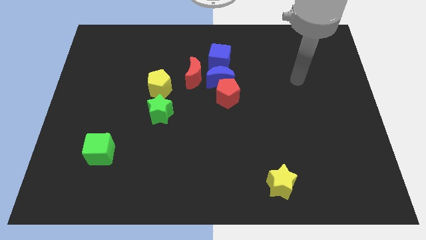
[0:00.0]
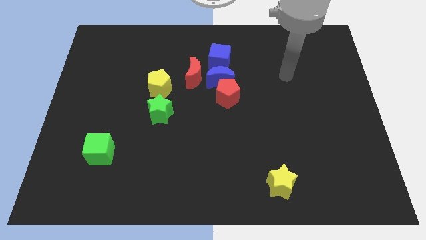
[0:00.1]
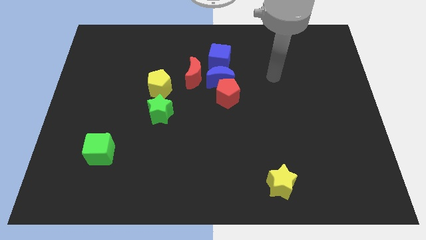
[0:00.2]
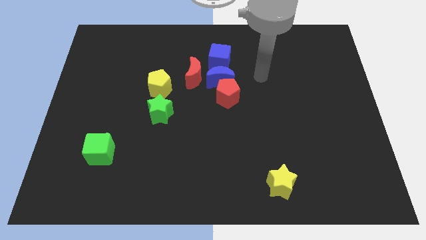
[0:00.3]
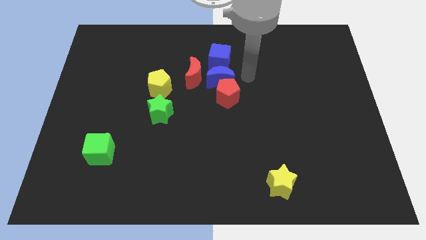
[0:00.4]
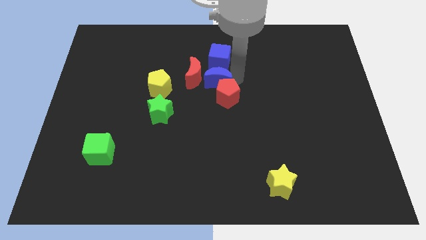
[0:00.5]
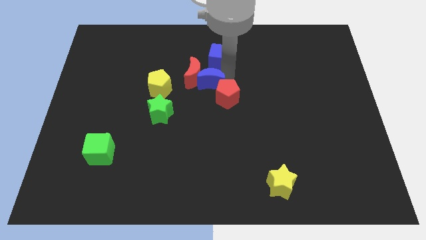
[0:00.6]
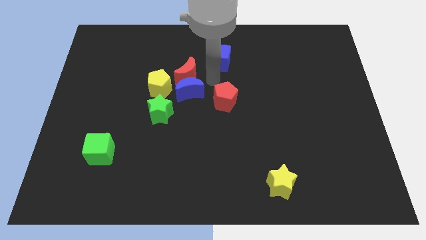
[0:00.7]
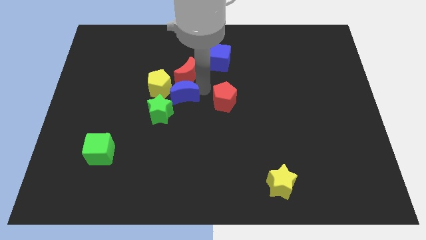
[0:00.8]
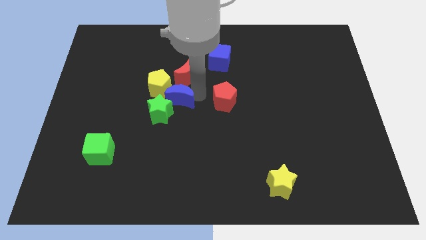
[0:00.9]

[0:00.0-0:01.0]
move the red pentagon away from the blue moon

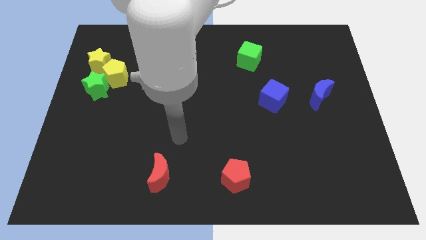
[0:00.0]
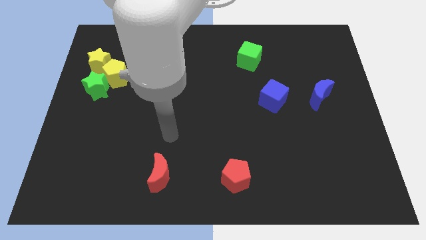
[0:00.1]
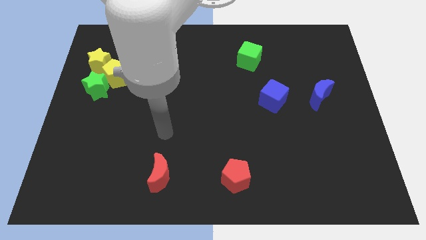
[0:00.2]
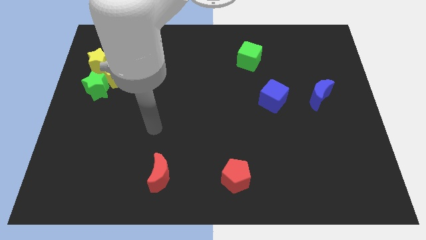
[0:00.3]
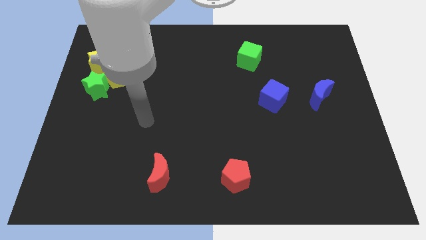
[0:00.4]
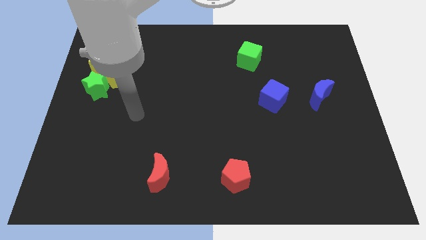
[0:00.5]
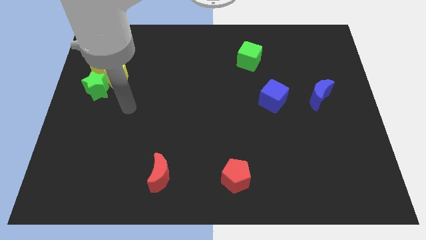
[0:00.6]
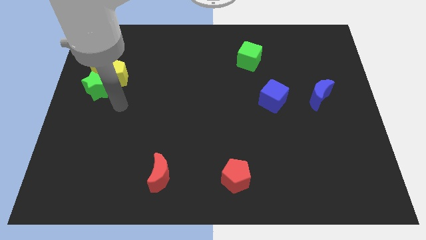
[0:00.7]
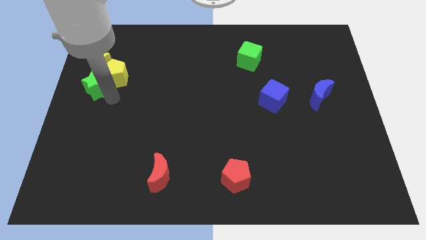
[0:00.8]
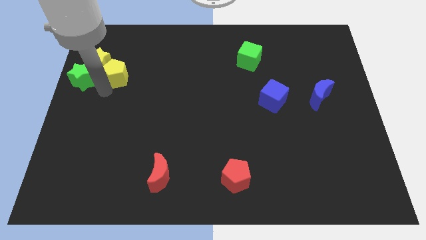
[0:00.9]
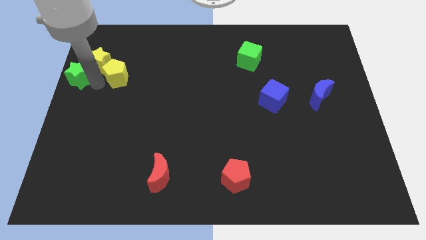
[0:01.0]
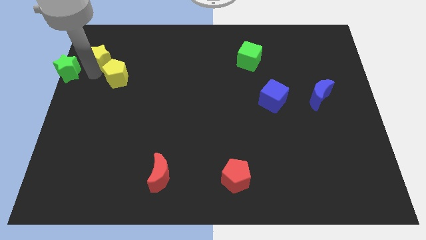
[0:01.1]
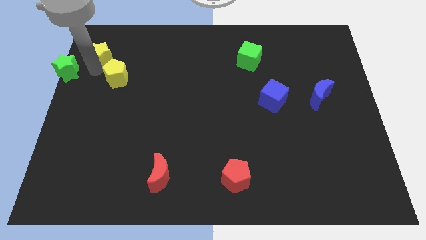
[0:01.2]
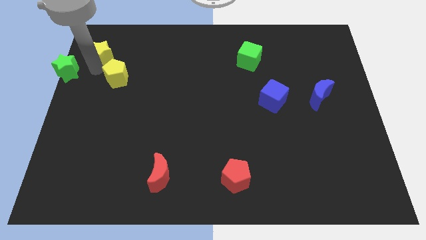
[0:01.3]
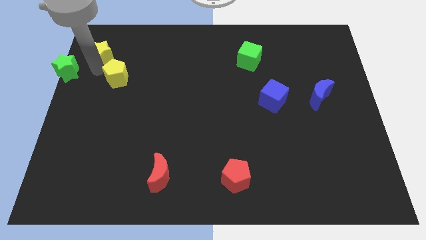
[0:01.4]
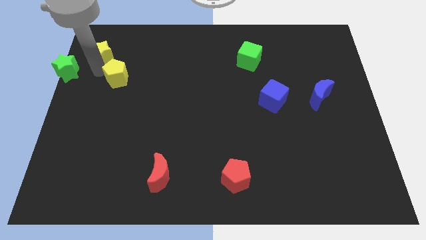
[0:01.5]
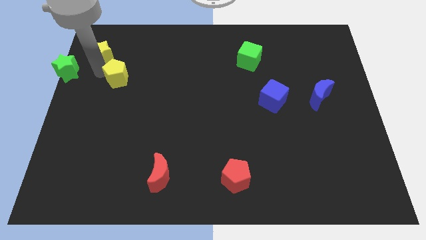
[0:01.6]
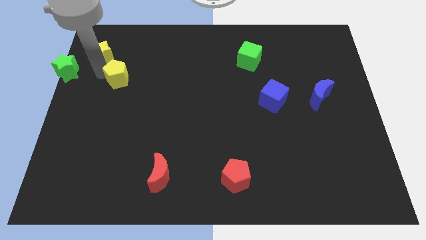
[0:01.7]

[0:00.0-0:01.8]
separate the yellow pentagon from the green star and yellow star

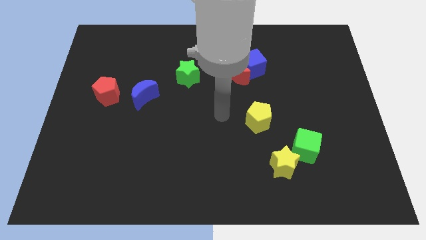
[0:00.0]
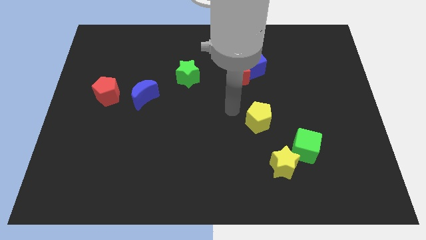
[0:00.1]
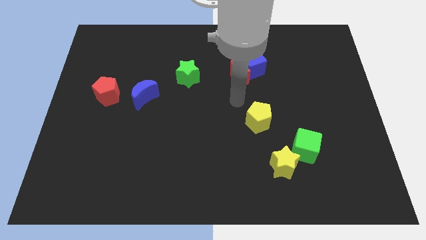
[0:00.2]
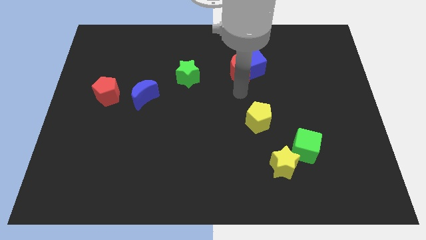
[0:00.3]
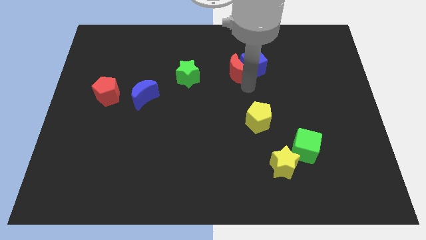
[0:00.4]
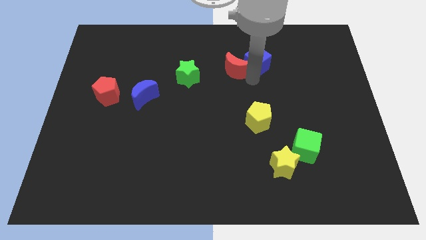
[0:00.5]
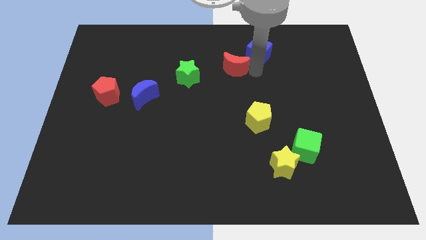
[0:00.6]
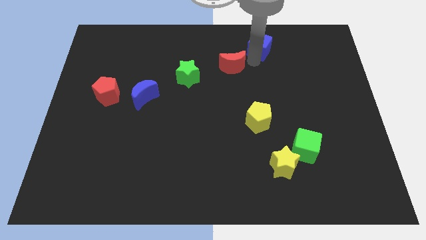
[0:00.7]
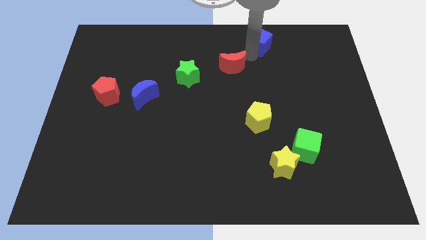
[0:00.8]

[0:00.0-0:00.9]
move the red moon away from the blue cube

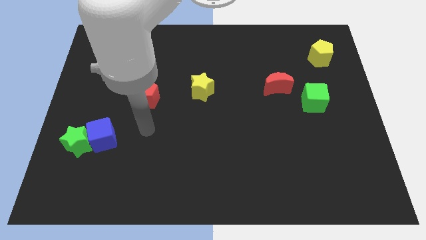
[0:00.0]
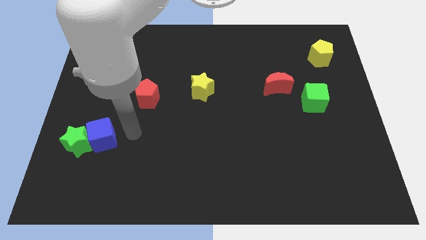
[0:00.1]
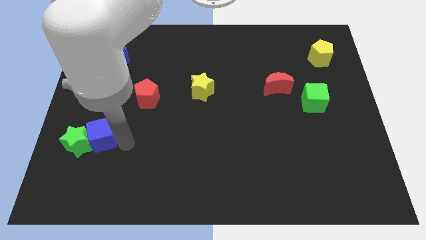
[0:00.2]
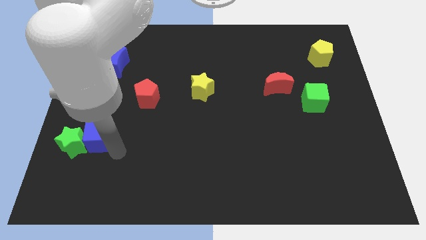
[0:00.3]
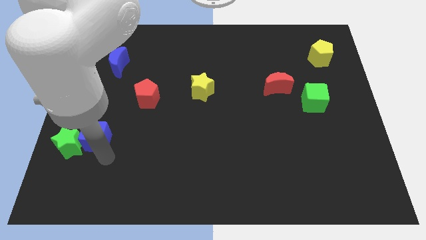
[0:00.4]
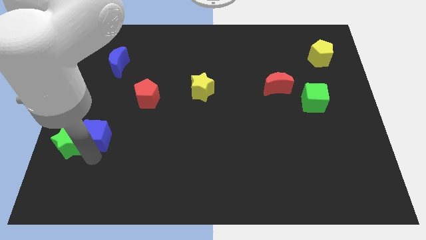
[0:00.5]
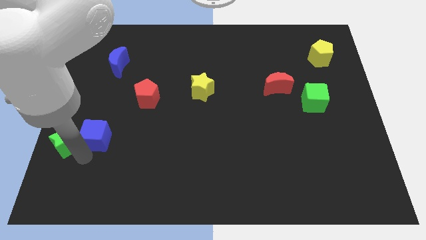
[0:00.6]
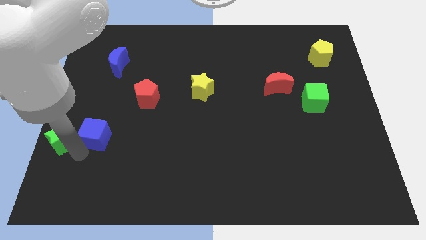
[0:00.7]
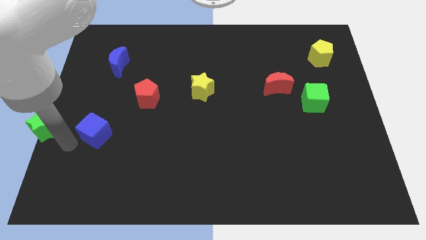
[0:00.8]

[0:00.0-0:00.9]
separate the blue cube from the green star

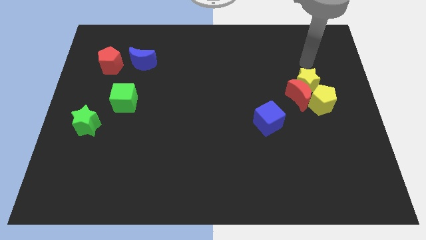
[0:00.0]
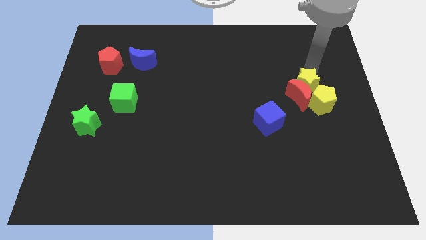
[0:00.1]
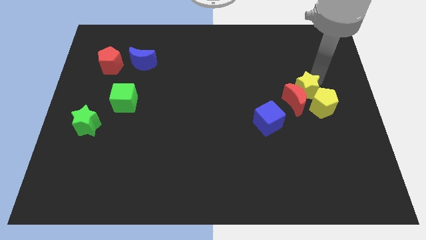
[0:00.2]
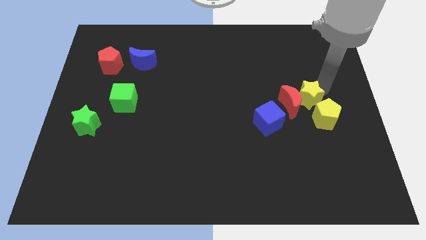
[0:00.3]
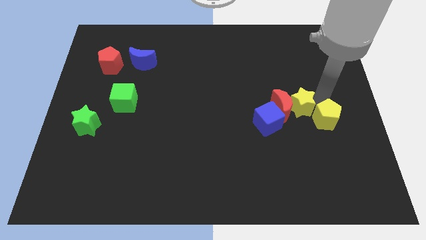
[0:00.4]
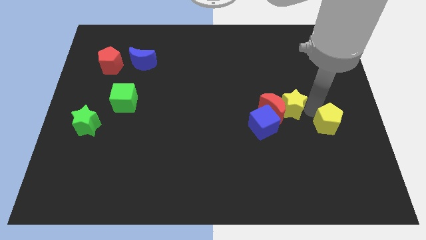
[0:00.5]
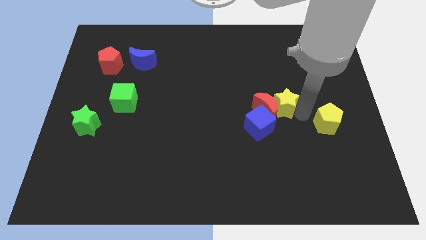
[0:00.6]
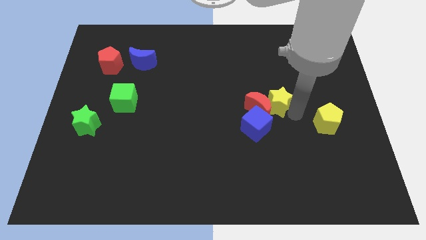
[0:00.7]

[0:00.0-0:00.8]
move the red moon away from the yellow star and yellow pentagon

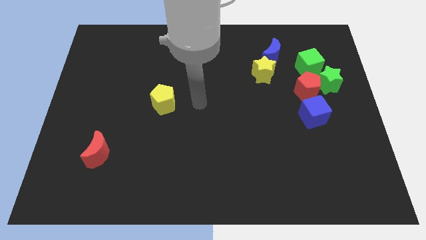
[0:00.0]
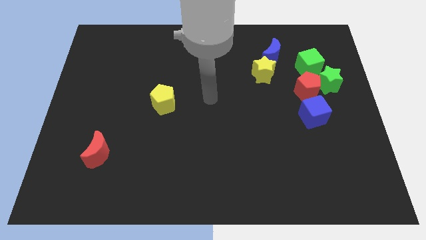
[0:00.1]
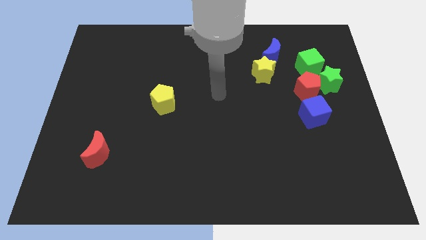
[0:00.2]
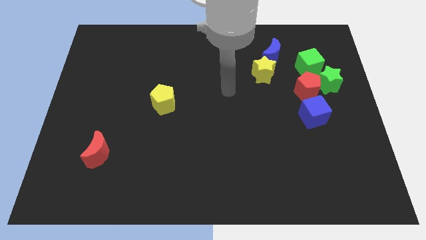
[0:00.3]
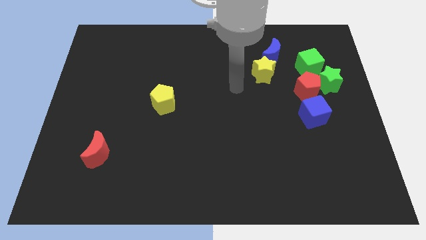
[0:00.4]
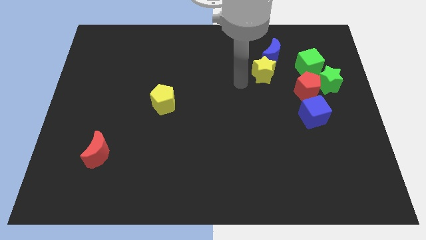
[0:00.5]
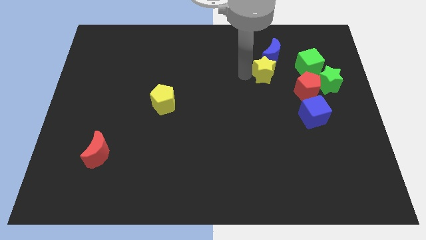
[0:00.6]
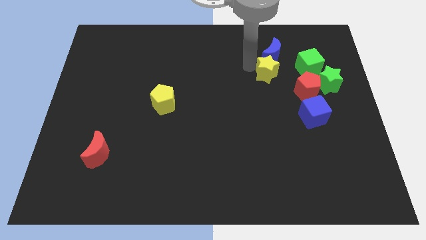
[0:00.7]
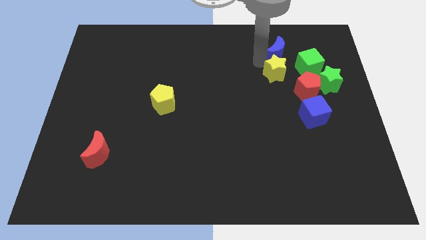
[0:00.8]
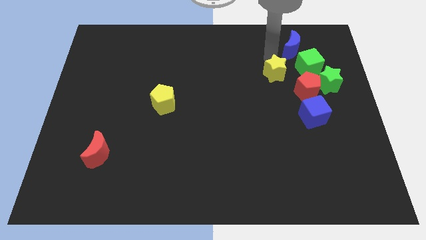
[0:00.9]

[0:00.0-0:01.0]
move the yellow star away from the blue moon

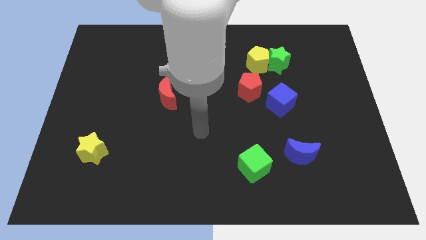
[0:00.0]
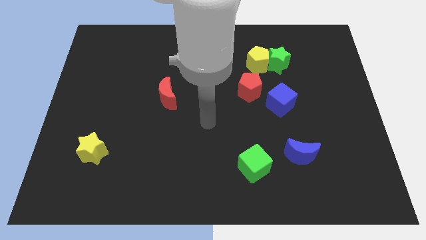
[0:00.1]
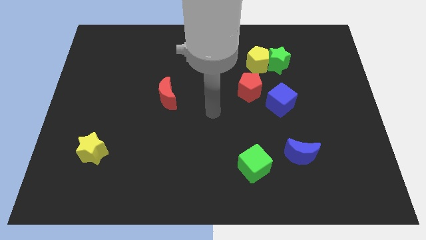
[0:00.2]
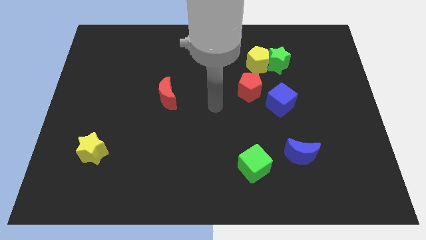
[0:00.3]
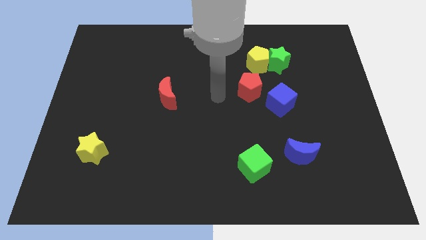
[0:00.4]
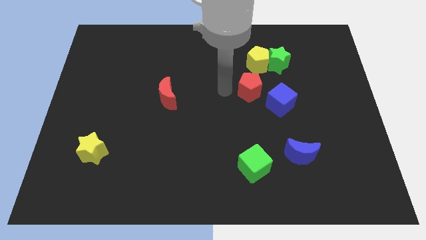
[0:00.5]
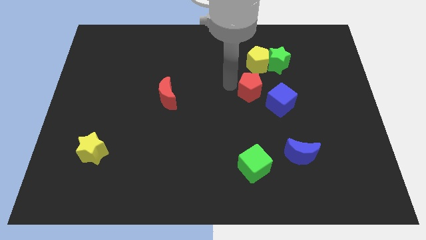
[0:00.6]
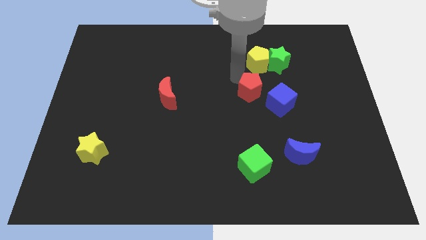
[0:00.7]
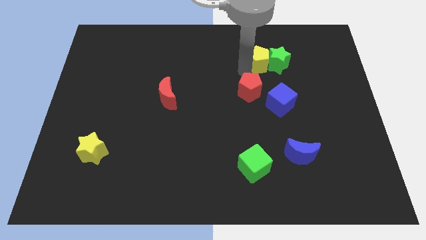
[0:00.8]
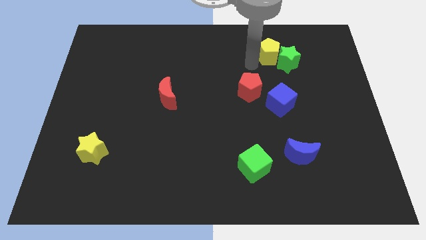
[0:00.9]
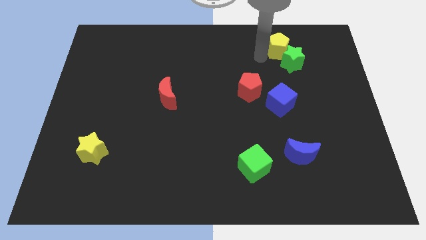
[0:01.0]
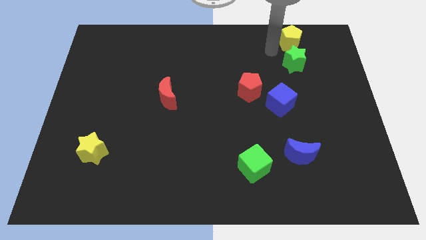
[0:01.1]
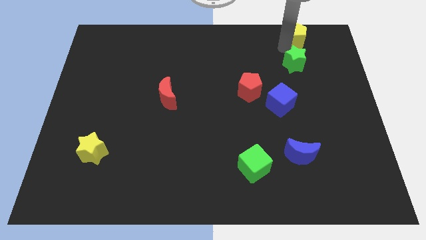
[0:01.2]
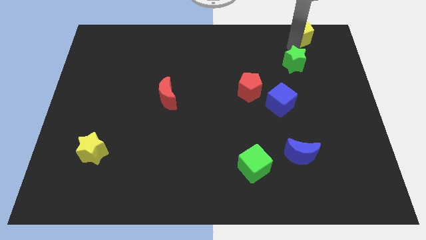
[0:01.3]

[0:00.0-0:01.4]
pull the green star apart from the yellow pentagon

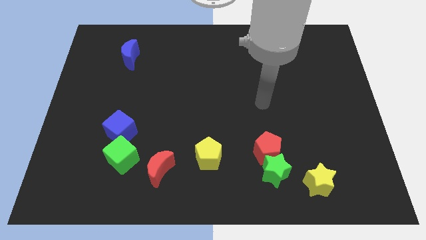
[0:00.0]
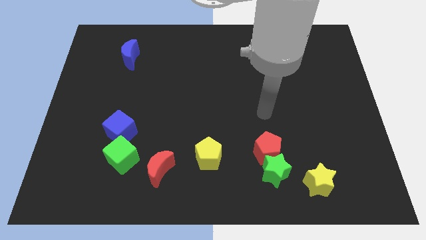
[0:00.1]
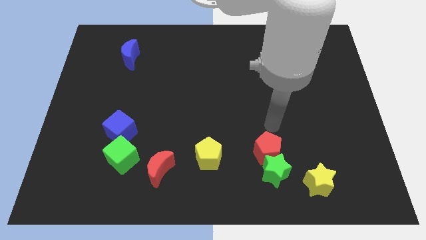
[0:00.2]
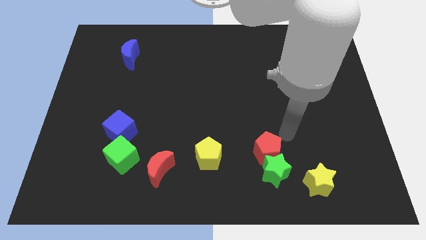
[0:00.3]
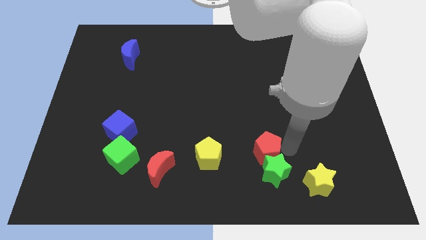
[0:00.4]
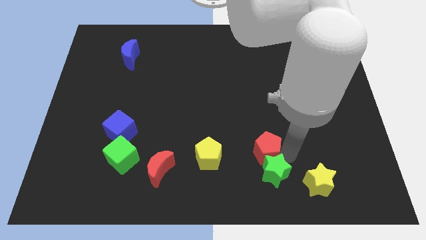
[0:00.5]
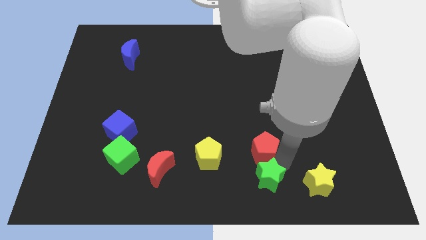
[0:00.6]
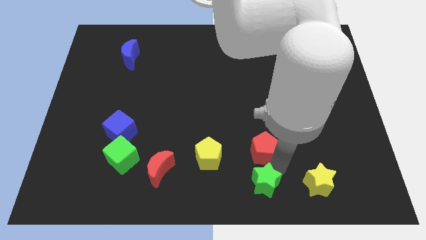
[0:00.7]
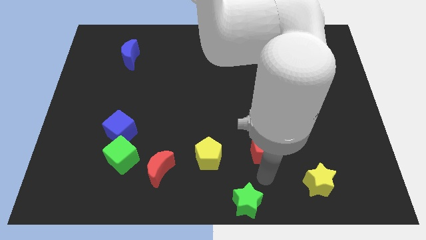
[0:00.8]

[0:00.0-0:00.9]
pull the red pentagon apart from the green star

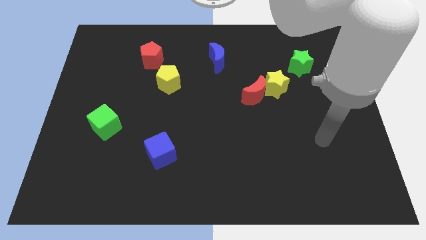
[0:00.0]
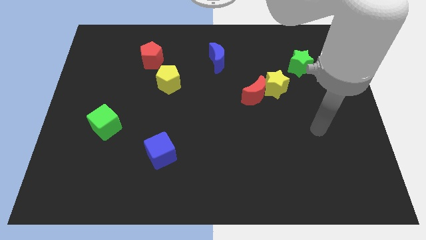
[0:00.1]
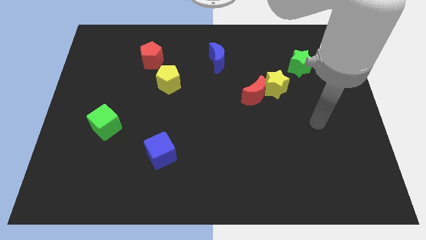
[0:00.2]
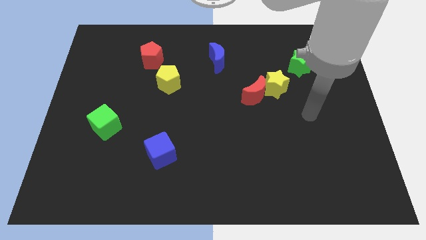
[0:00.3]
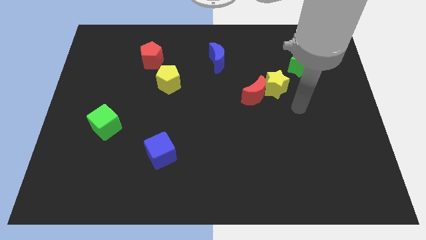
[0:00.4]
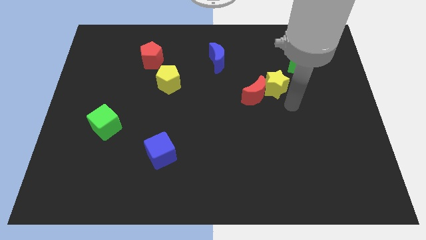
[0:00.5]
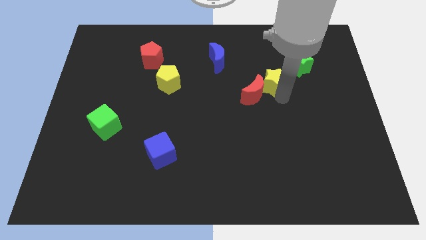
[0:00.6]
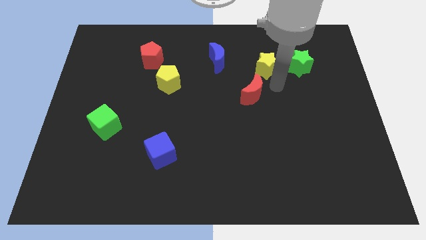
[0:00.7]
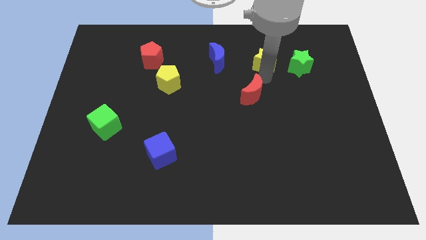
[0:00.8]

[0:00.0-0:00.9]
pull the red moon apart from the yellow star
